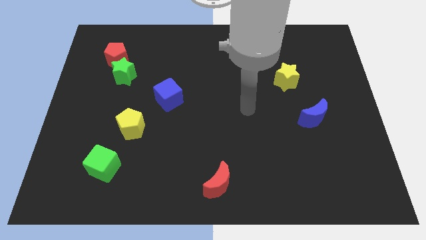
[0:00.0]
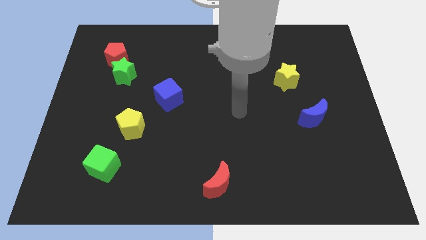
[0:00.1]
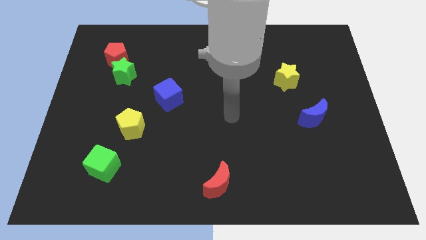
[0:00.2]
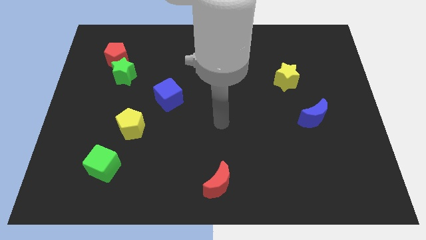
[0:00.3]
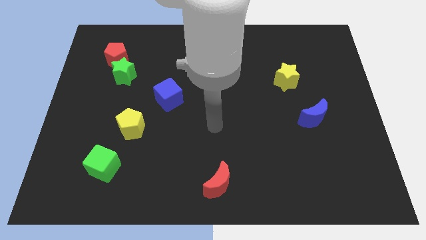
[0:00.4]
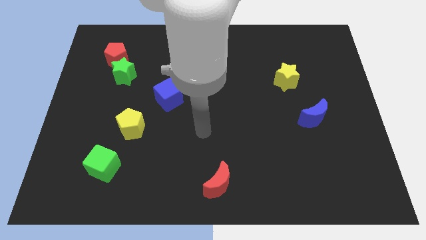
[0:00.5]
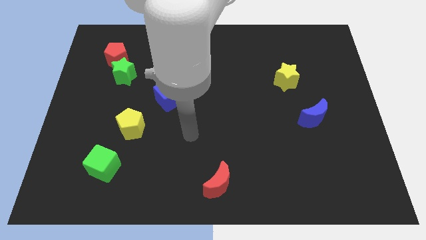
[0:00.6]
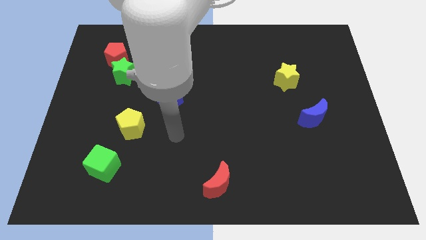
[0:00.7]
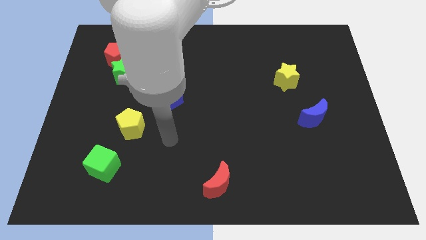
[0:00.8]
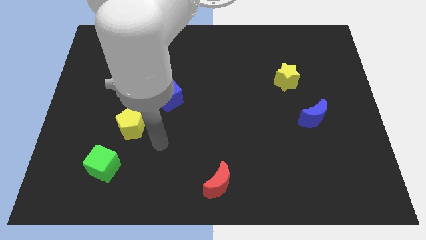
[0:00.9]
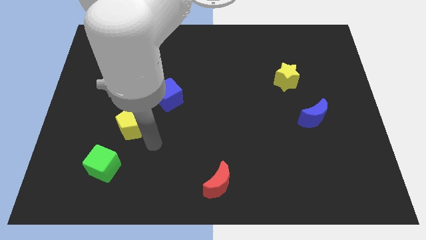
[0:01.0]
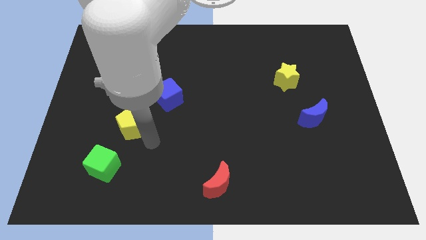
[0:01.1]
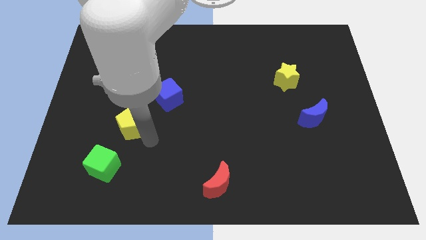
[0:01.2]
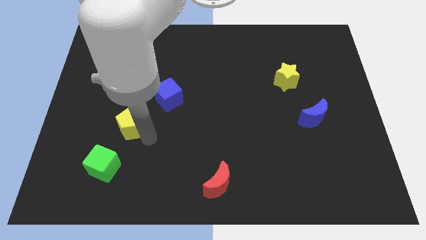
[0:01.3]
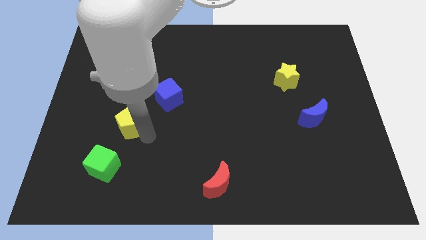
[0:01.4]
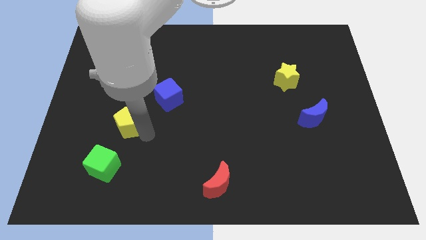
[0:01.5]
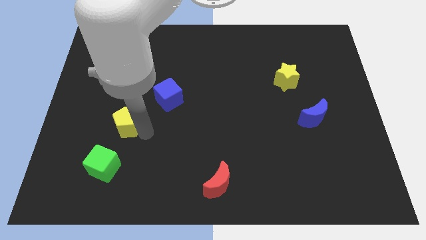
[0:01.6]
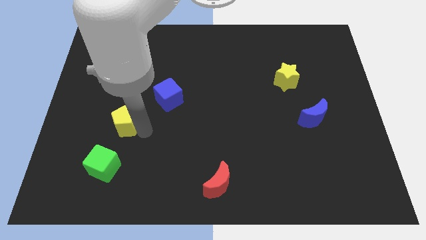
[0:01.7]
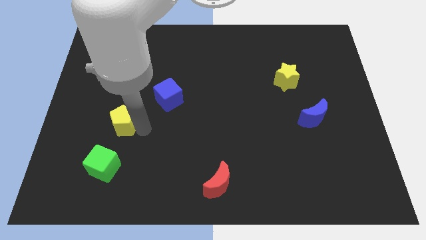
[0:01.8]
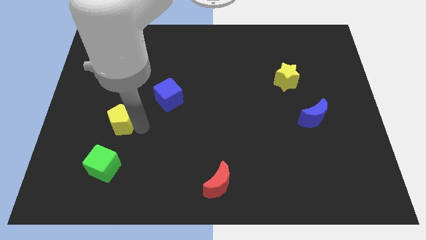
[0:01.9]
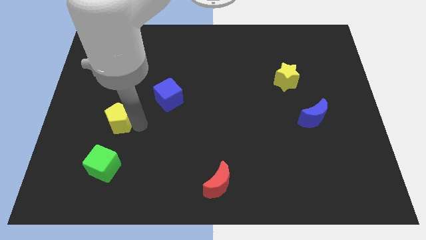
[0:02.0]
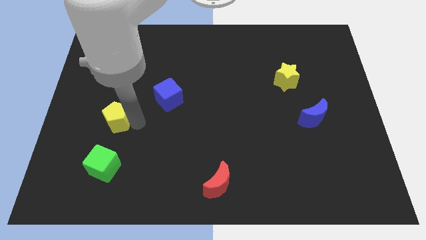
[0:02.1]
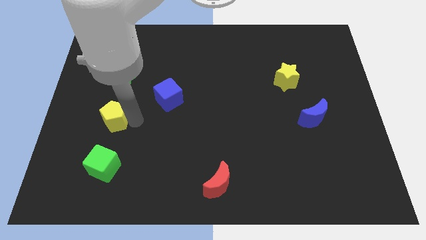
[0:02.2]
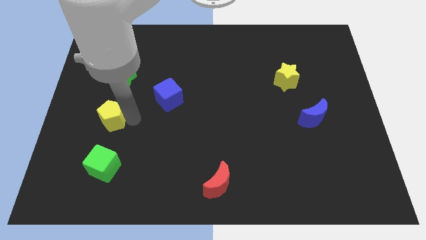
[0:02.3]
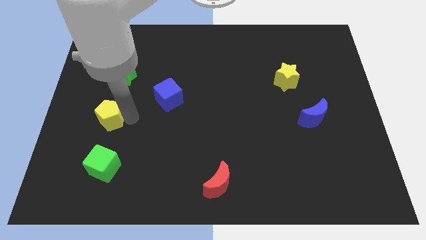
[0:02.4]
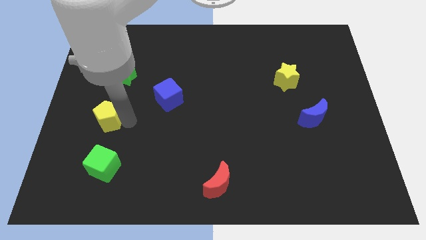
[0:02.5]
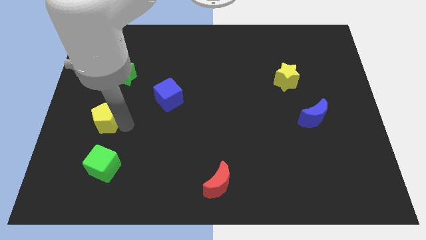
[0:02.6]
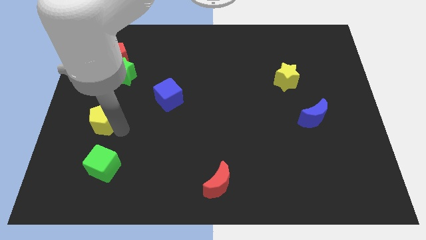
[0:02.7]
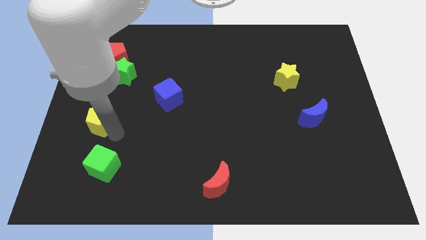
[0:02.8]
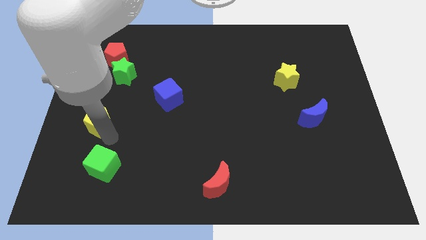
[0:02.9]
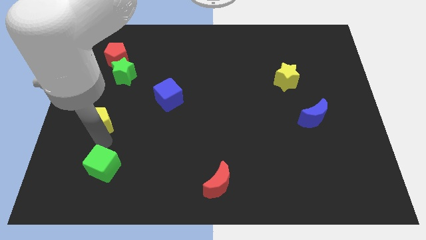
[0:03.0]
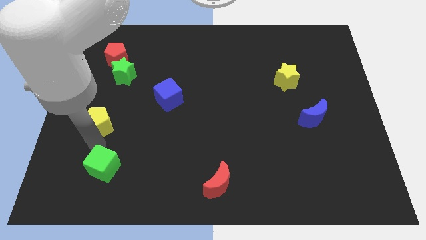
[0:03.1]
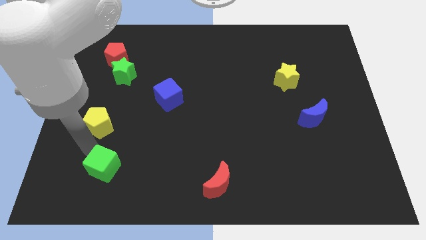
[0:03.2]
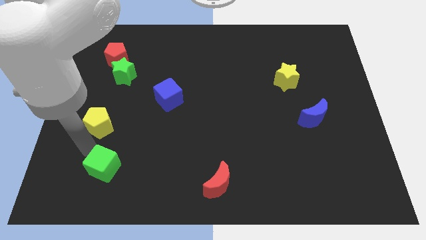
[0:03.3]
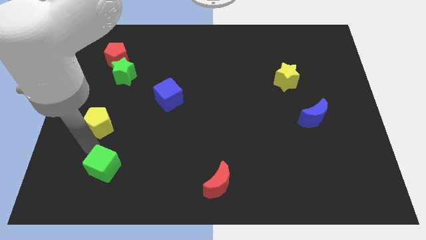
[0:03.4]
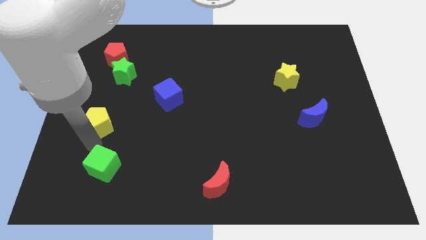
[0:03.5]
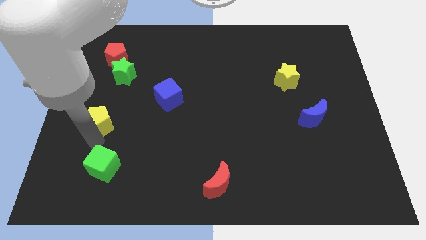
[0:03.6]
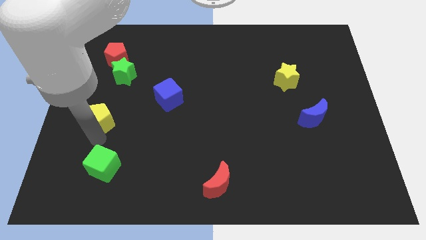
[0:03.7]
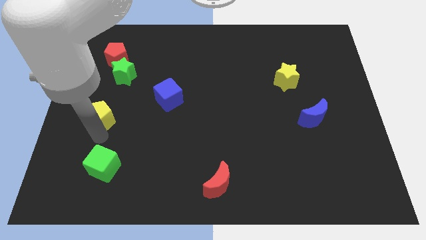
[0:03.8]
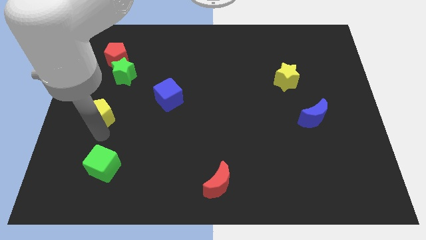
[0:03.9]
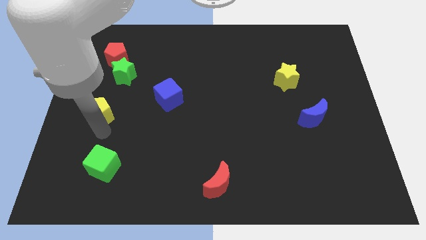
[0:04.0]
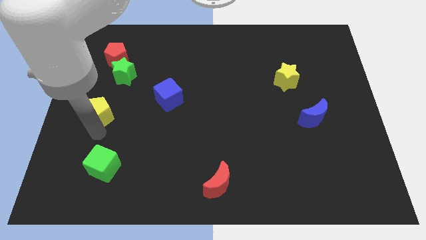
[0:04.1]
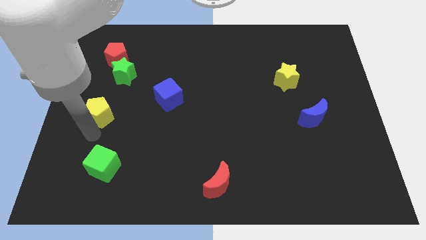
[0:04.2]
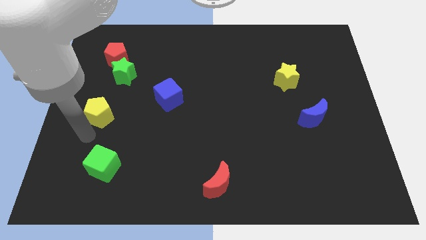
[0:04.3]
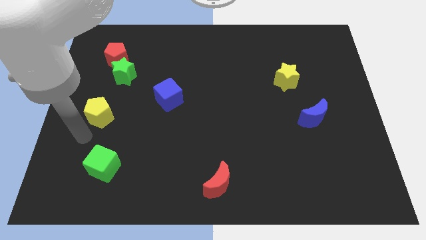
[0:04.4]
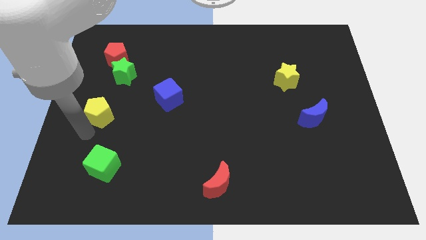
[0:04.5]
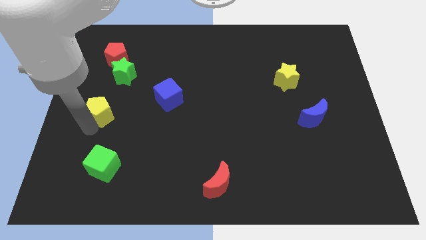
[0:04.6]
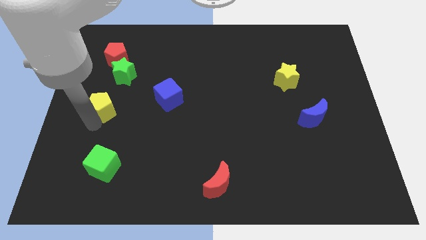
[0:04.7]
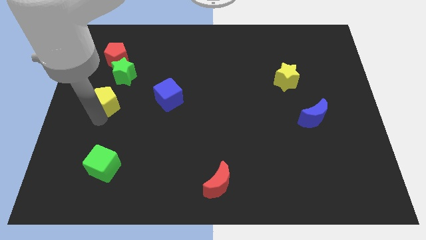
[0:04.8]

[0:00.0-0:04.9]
slide the yellow pentagon to the bottom left of the green star

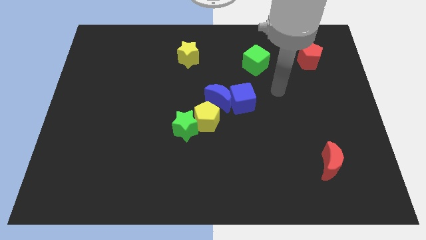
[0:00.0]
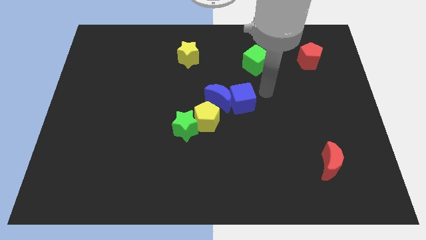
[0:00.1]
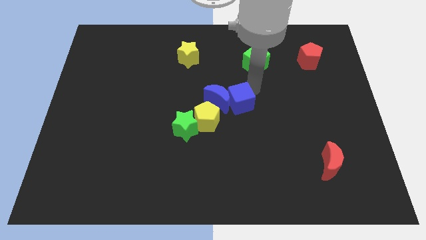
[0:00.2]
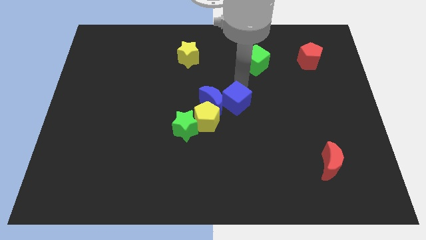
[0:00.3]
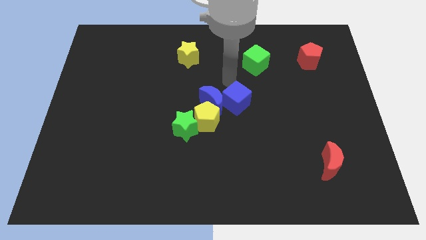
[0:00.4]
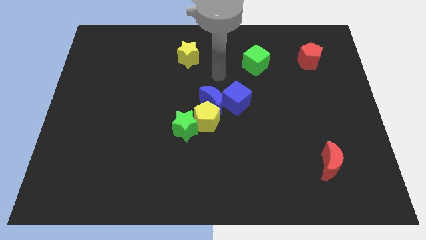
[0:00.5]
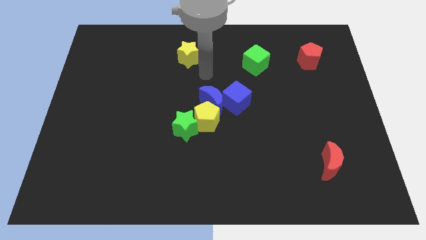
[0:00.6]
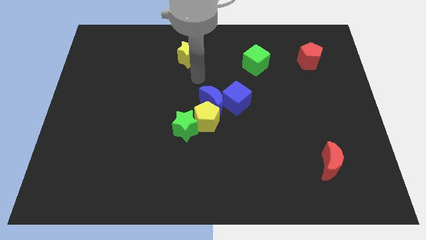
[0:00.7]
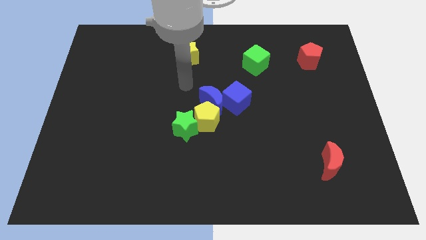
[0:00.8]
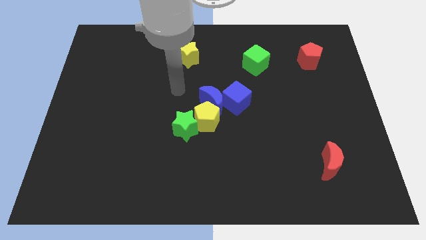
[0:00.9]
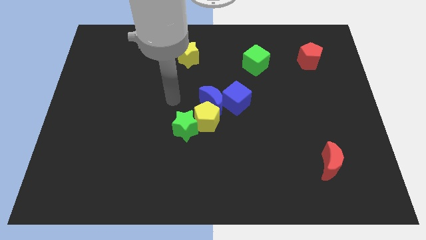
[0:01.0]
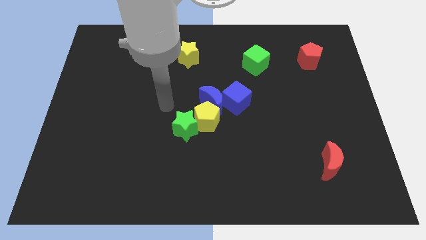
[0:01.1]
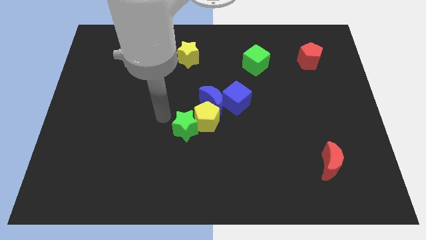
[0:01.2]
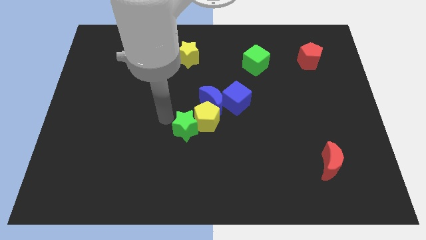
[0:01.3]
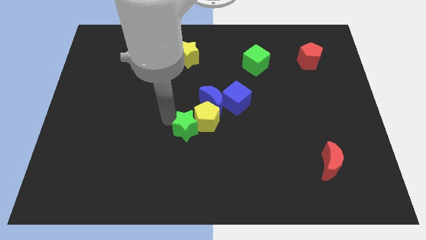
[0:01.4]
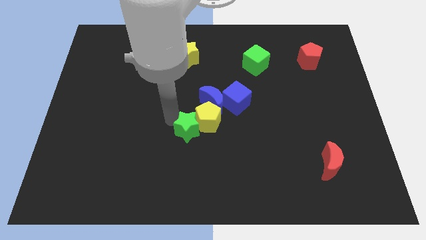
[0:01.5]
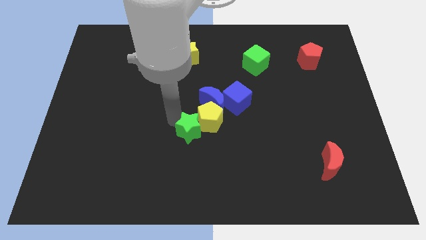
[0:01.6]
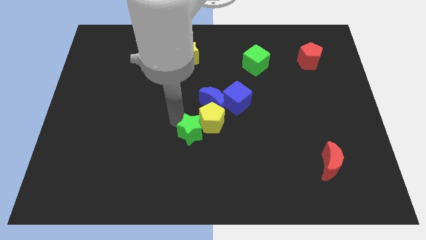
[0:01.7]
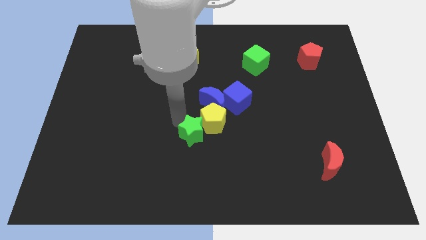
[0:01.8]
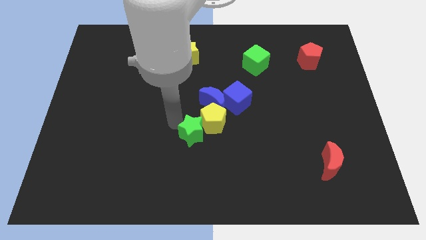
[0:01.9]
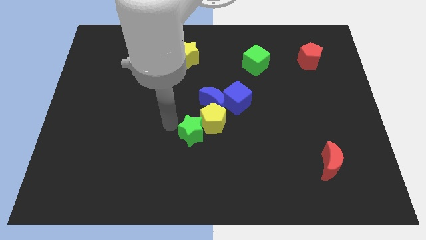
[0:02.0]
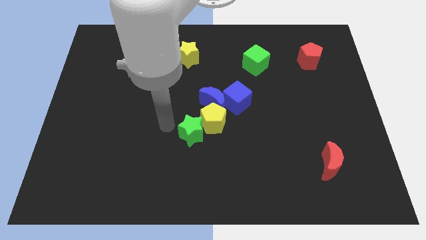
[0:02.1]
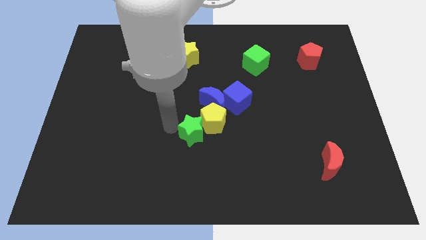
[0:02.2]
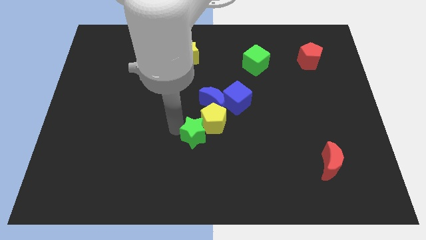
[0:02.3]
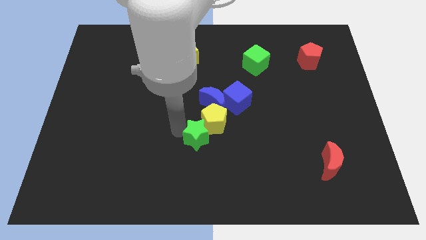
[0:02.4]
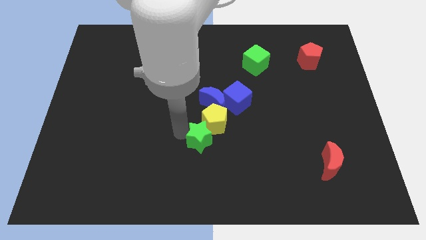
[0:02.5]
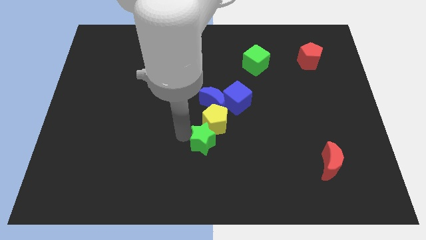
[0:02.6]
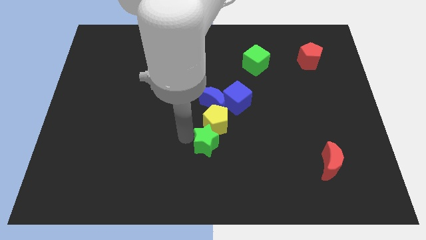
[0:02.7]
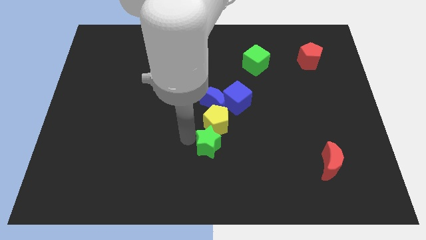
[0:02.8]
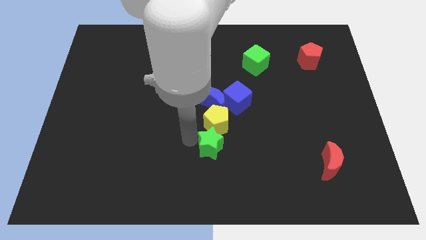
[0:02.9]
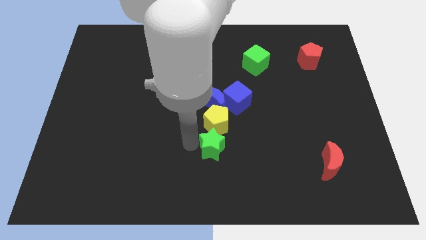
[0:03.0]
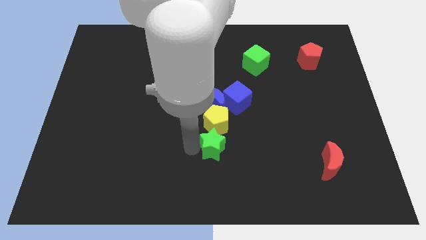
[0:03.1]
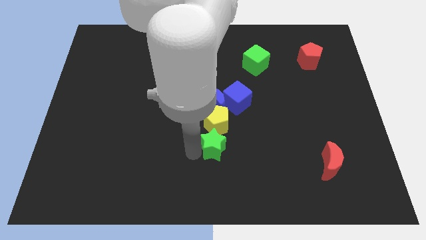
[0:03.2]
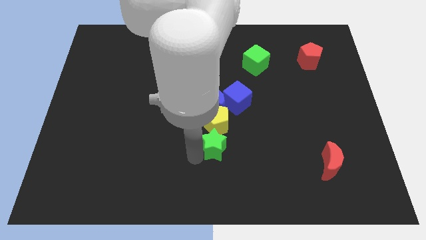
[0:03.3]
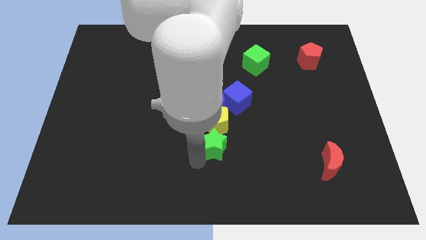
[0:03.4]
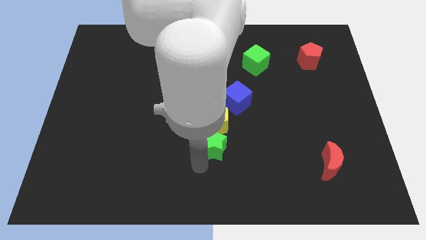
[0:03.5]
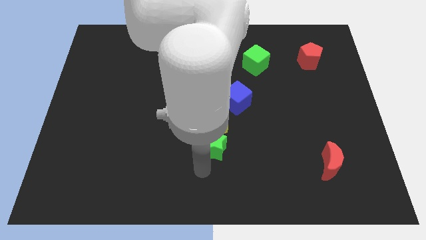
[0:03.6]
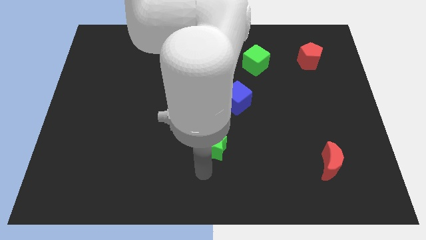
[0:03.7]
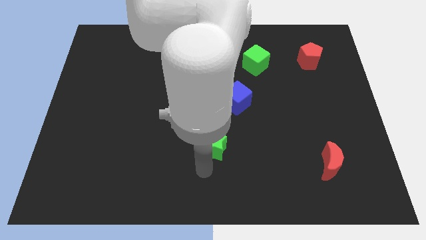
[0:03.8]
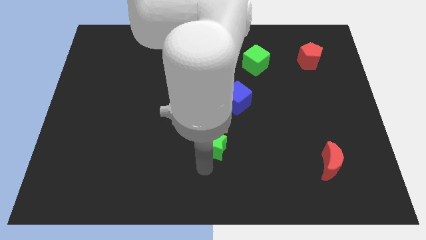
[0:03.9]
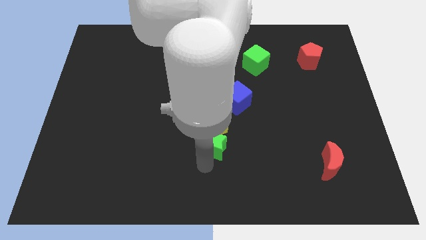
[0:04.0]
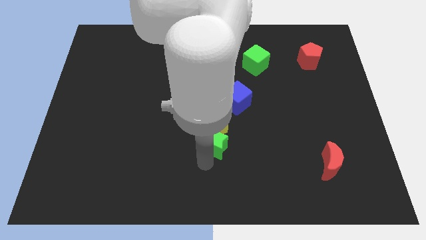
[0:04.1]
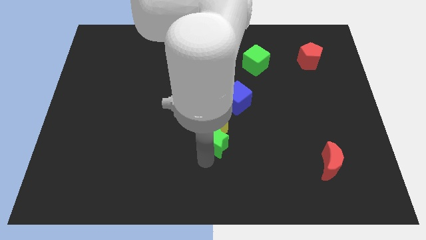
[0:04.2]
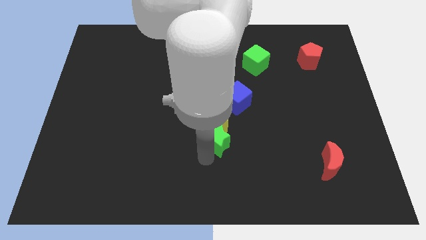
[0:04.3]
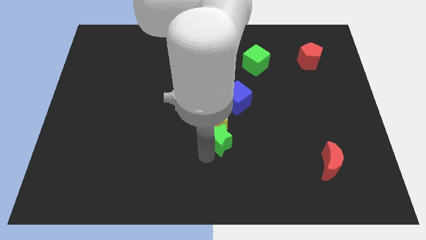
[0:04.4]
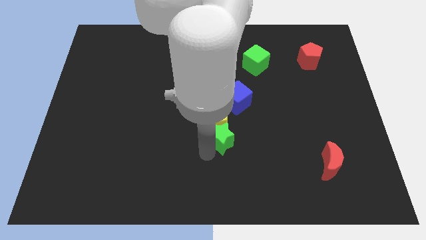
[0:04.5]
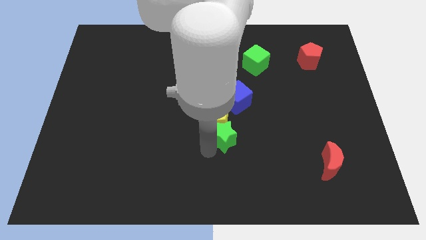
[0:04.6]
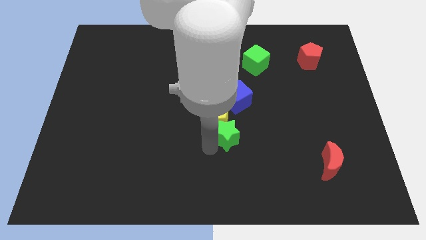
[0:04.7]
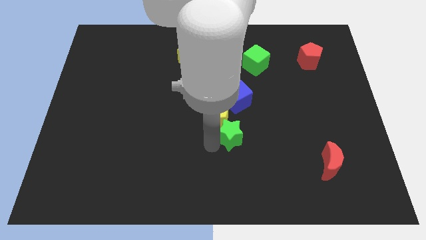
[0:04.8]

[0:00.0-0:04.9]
slide the green star to the bottom right side of the blue moon
